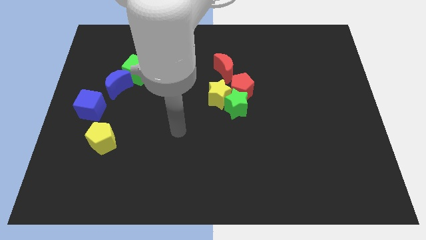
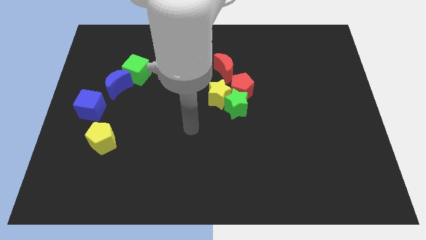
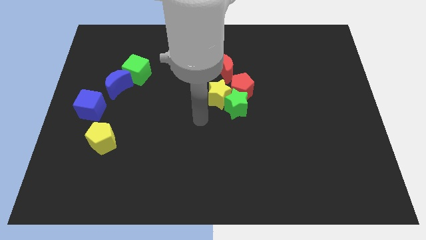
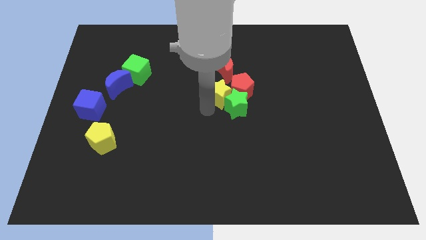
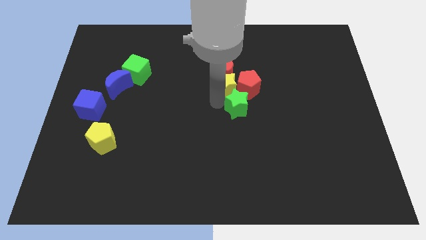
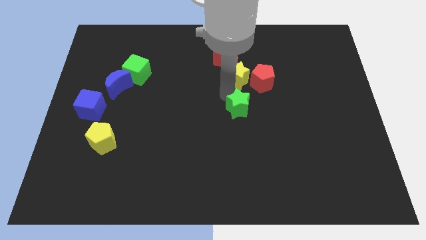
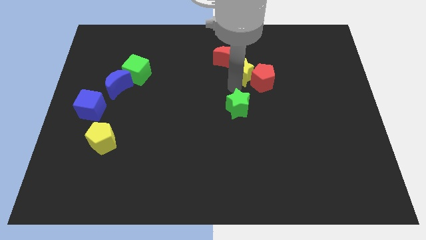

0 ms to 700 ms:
move the green star away from the yellow star and red pentagon

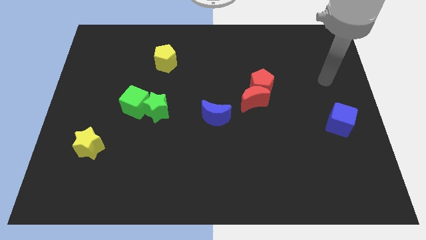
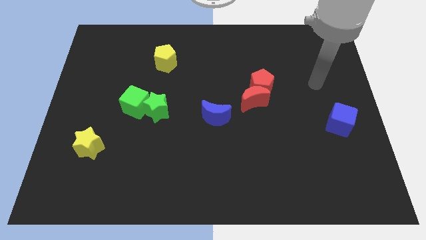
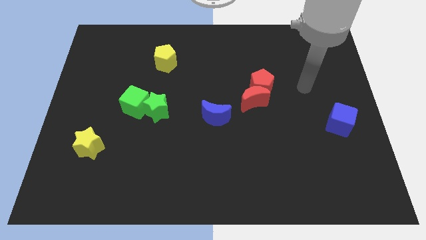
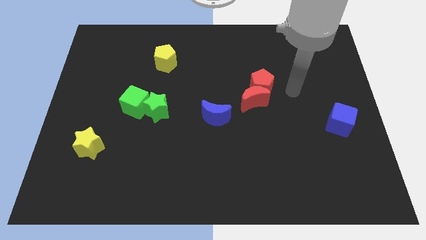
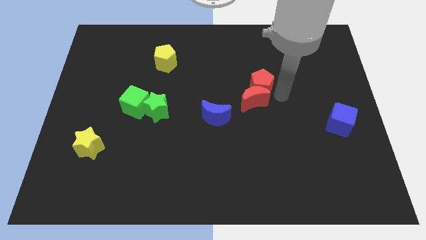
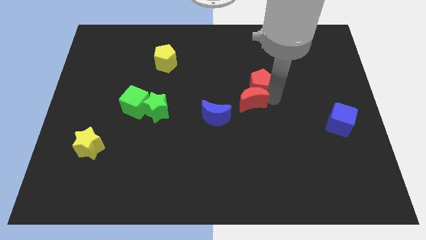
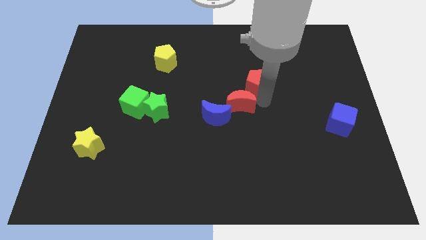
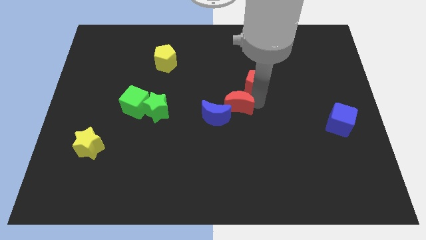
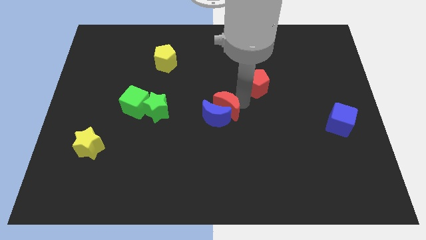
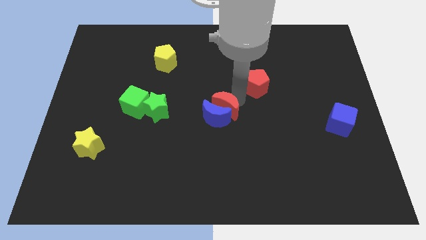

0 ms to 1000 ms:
move the red pentagon away from the red moon

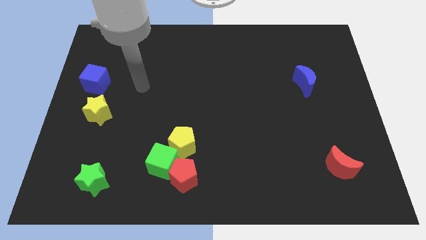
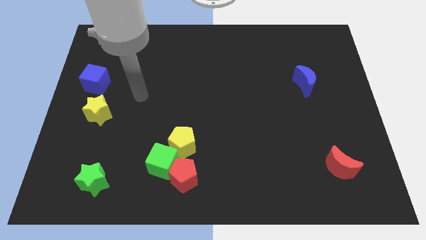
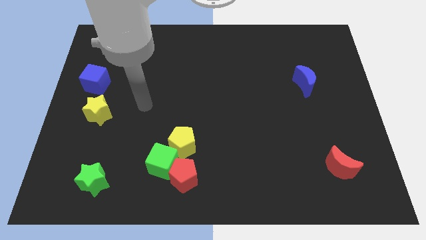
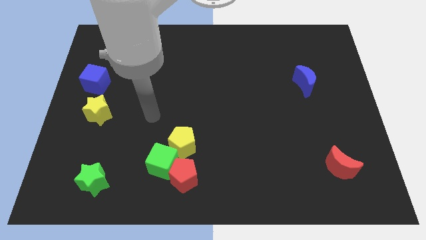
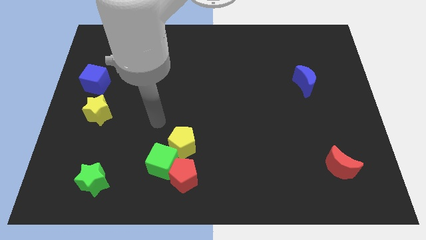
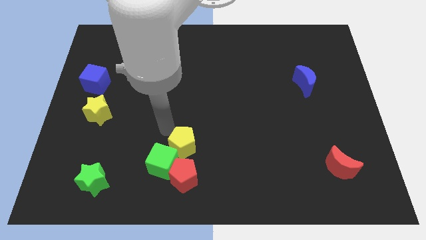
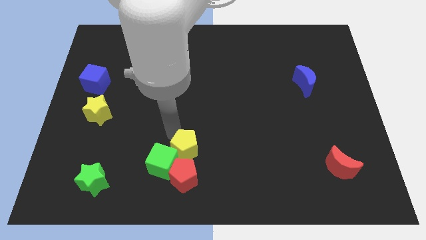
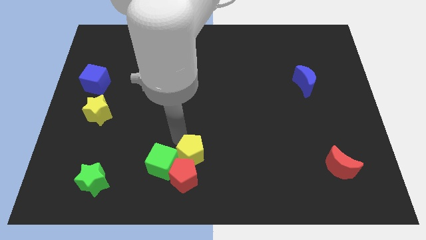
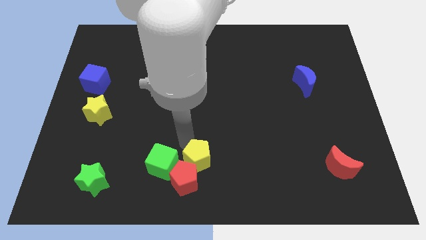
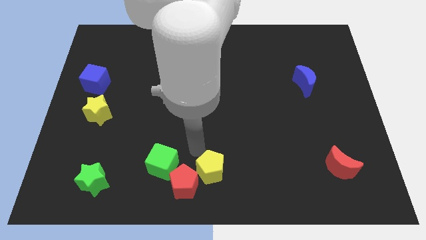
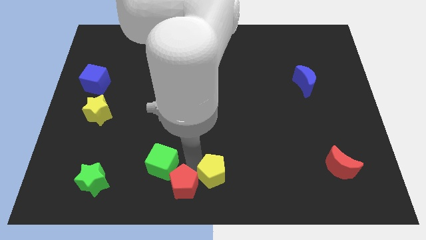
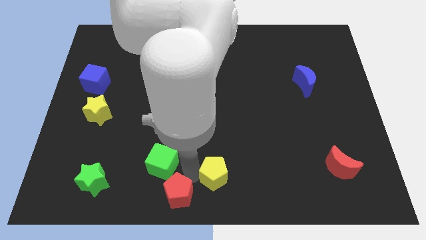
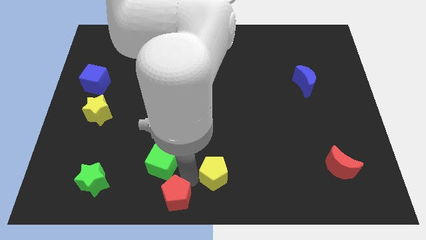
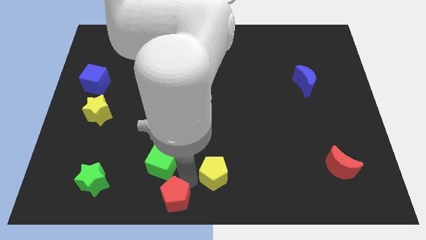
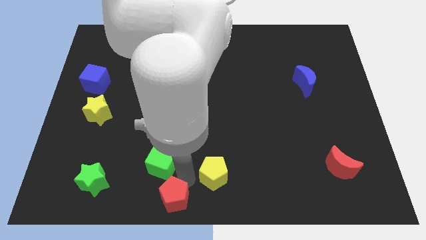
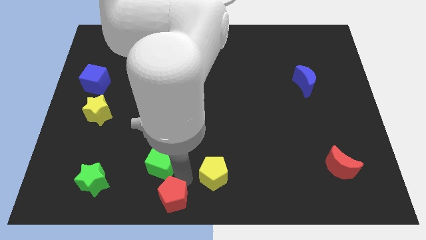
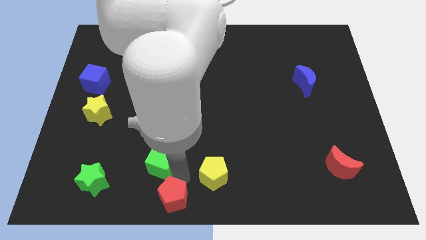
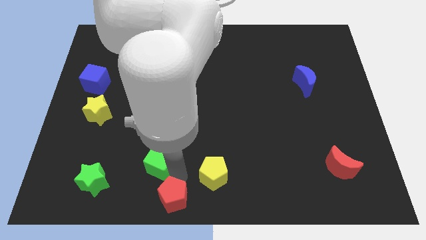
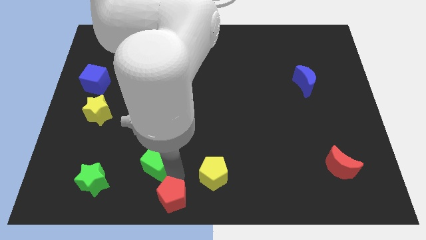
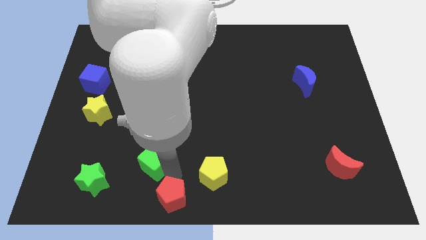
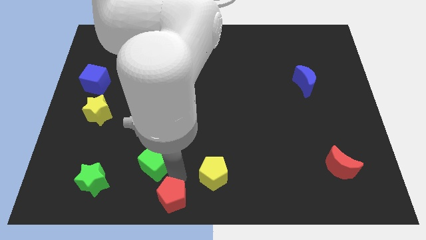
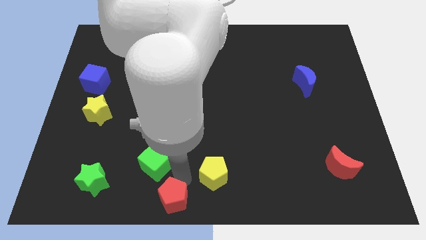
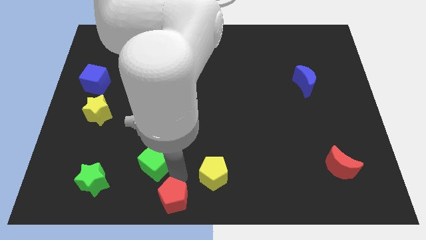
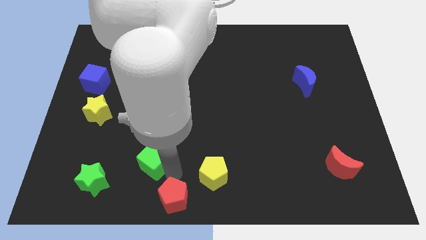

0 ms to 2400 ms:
separate the green cube from the red pentagon and yellow pentagon

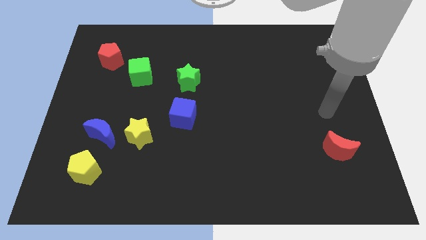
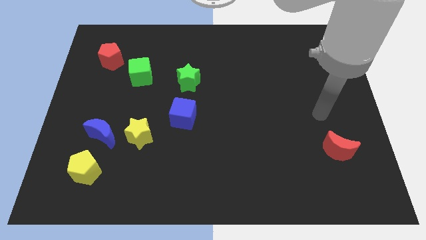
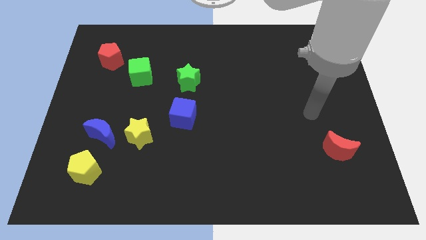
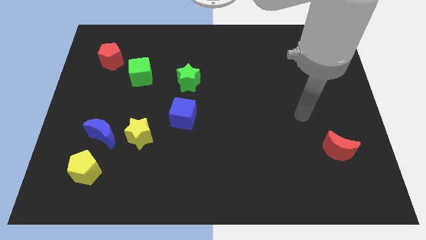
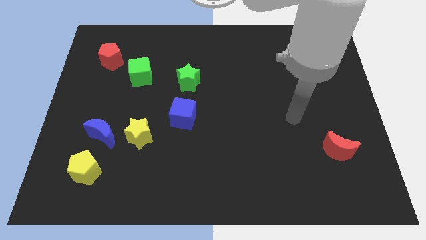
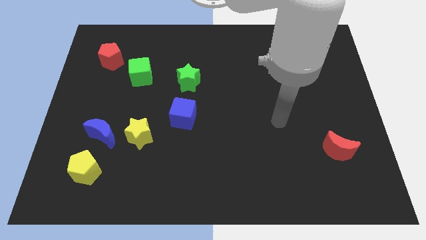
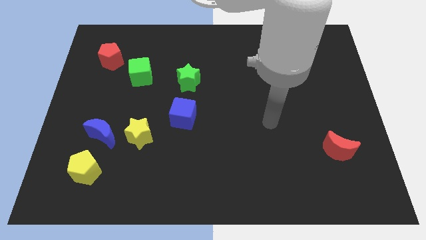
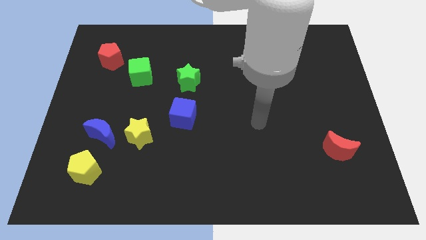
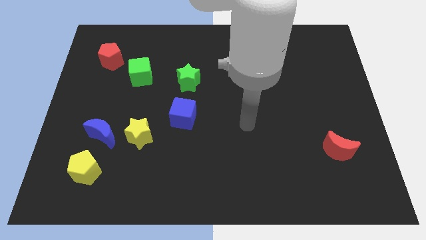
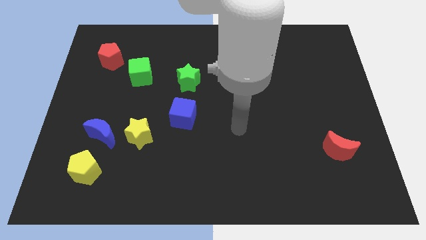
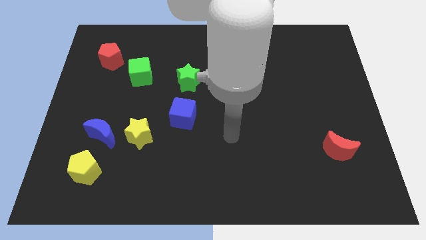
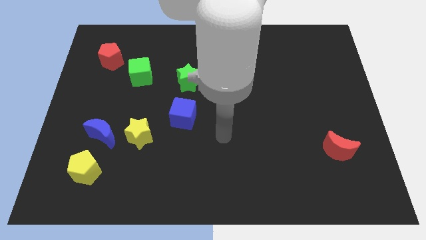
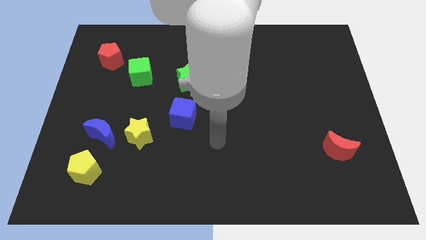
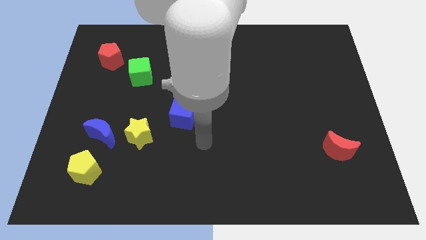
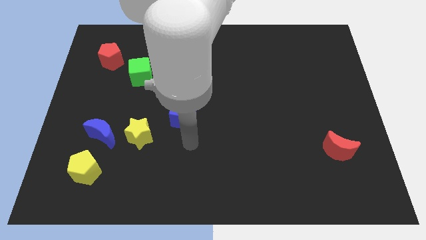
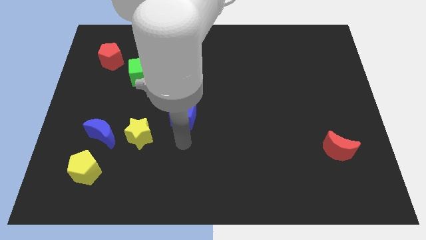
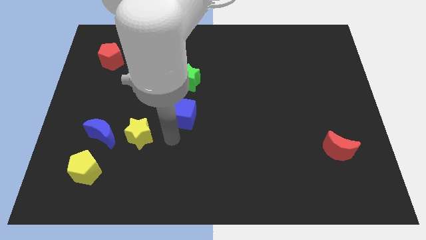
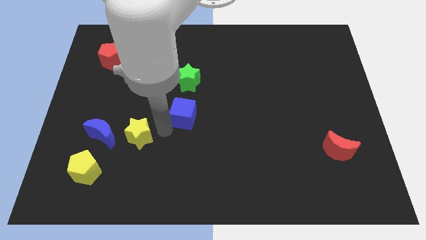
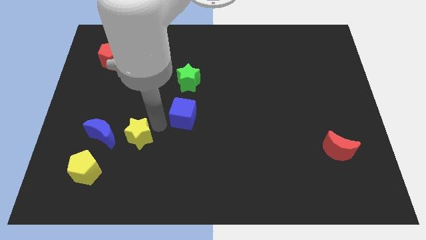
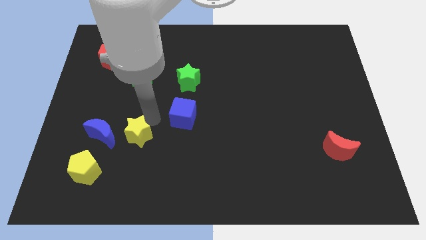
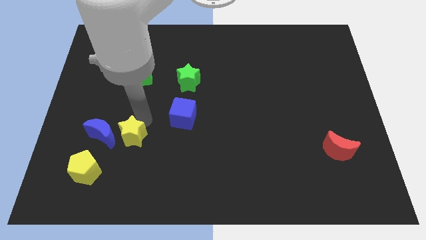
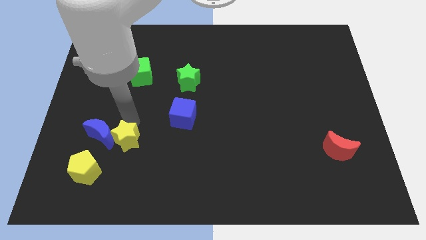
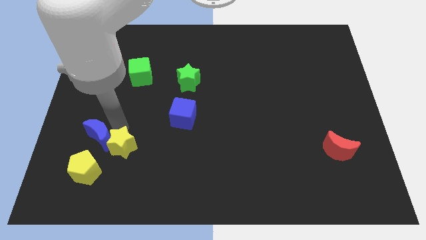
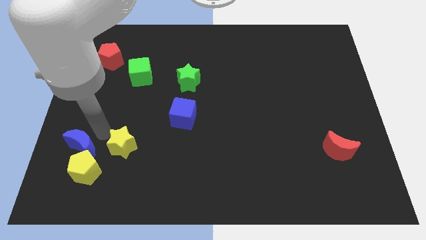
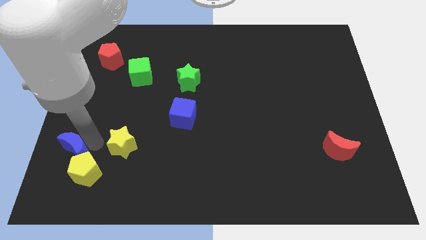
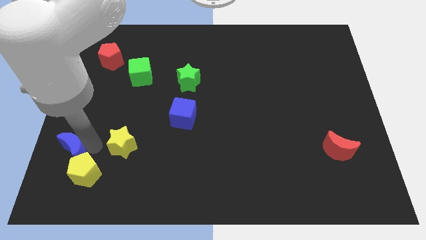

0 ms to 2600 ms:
separate the yellow star from the blue moon

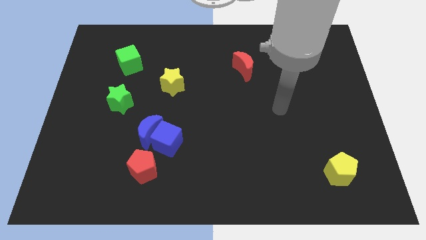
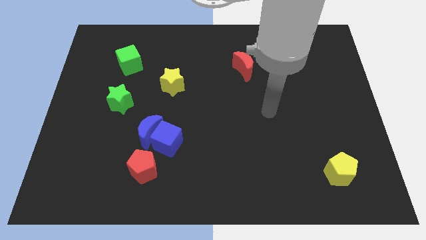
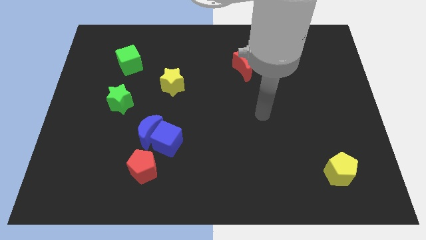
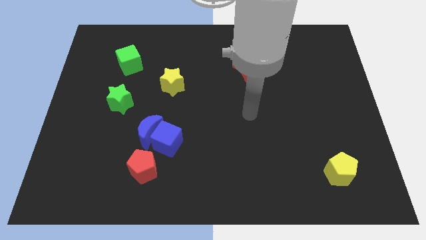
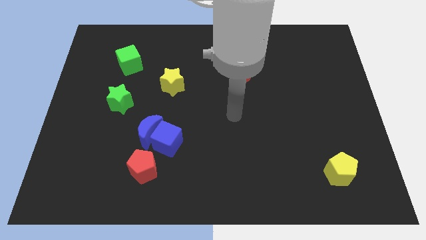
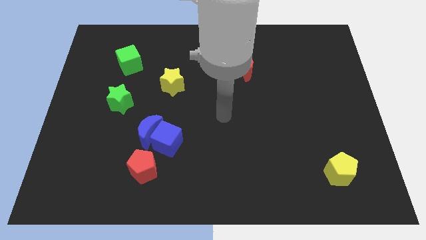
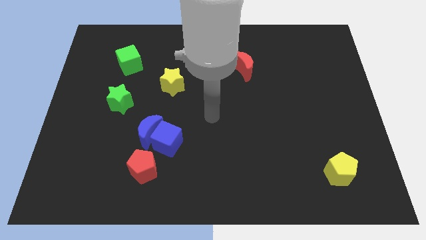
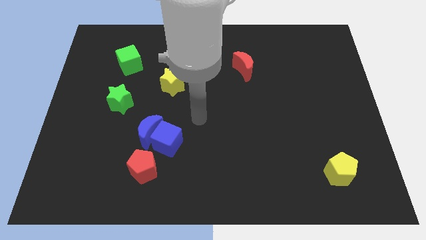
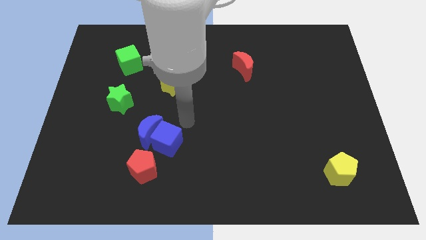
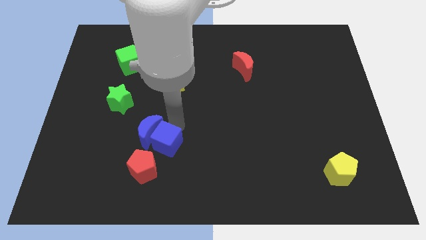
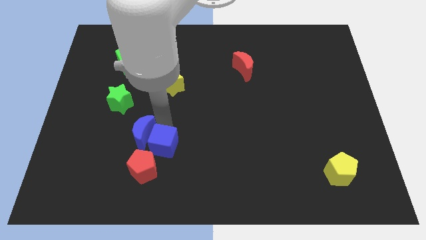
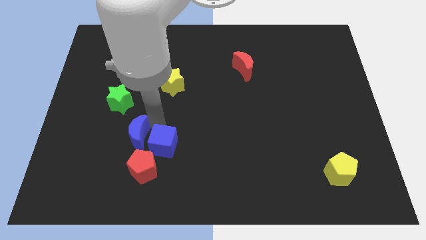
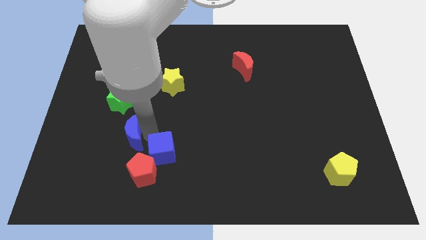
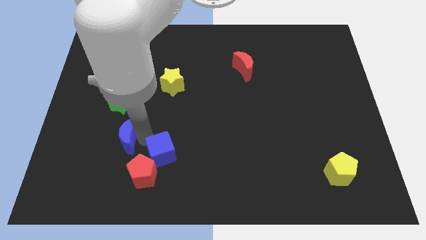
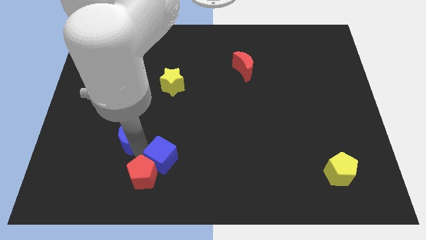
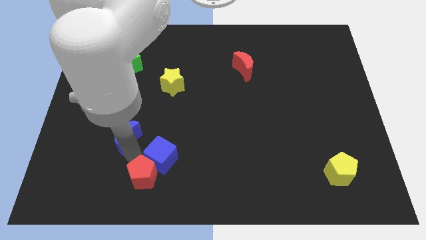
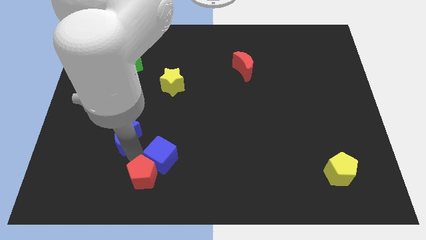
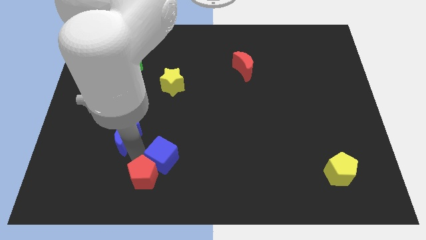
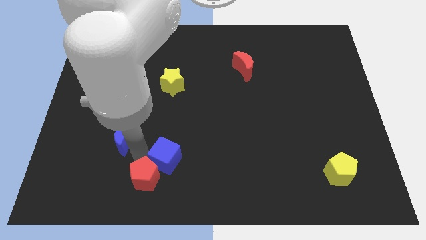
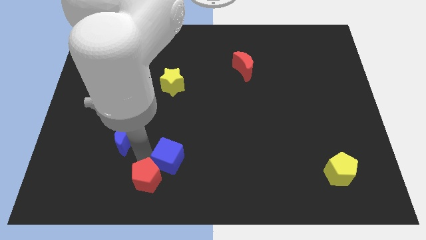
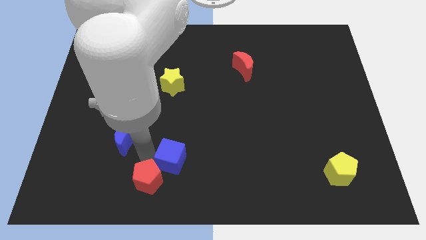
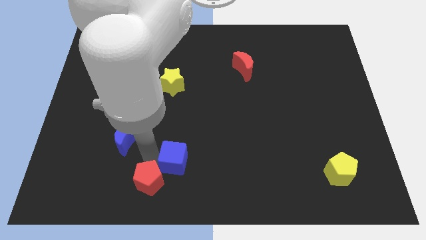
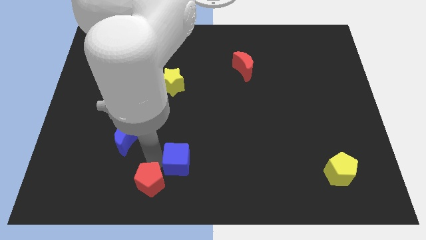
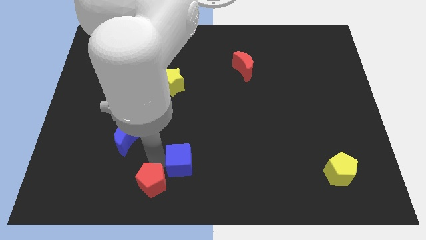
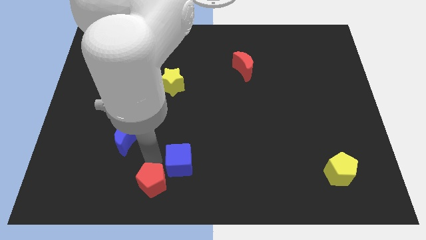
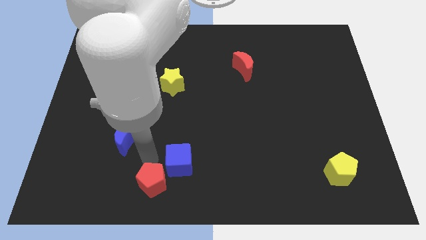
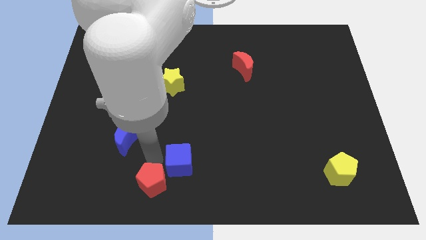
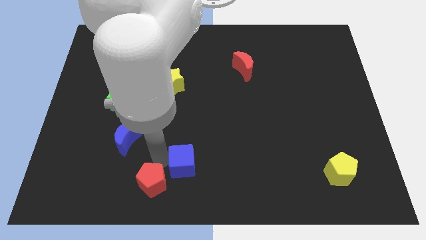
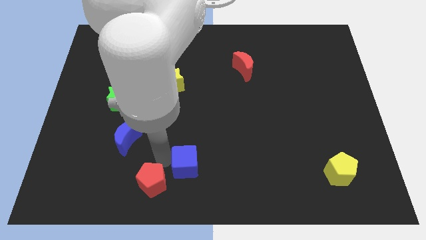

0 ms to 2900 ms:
separate the blue cube from the blue moon and red pentagon
